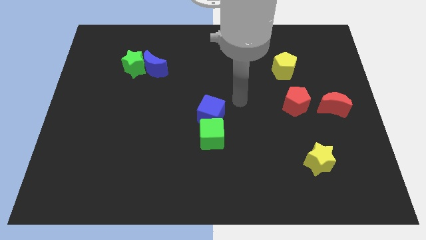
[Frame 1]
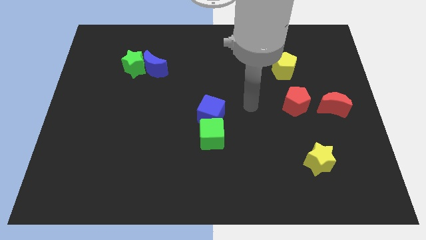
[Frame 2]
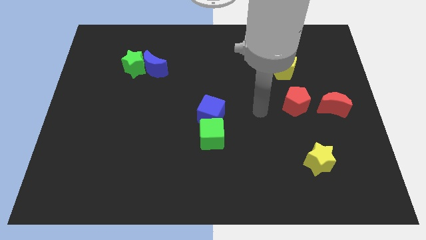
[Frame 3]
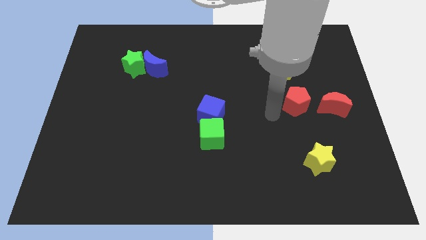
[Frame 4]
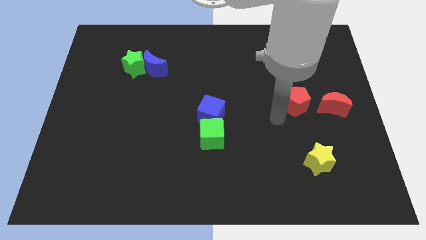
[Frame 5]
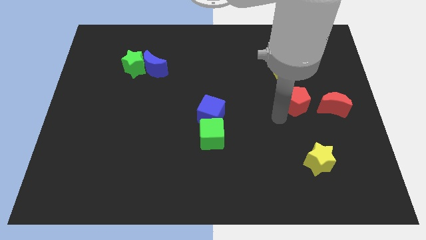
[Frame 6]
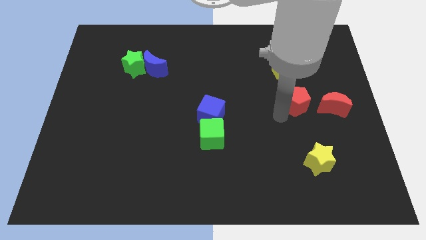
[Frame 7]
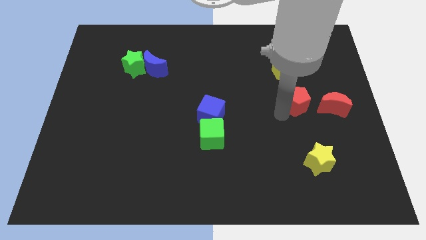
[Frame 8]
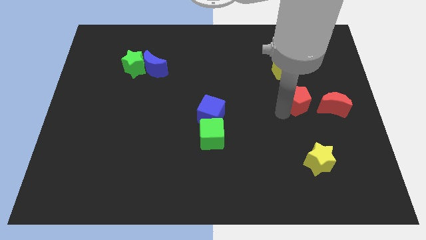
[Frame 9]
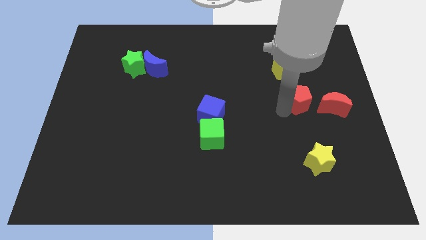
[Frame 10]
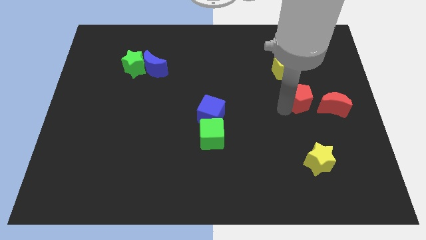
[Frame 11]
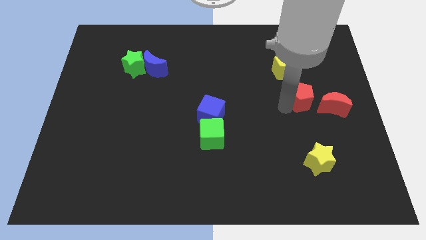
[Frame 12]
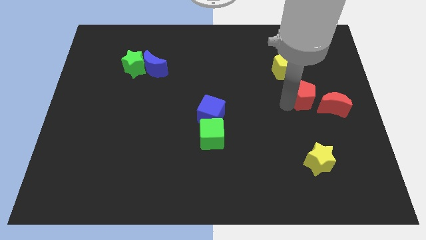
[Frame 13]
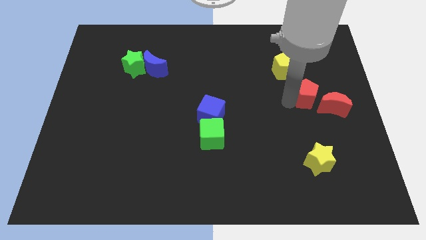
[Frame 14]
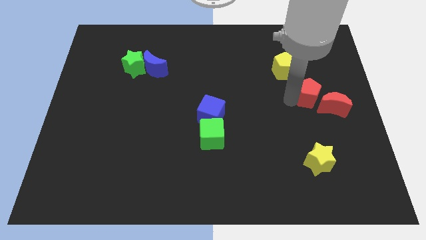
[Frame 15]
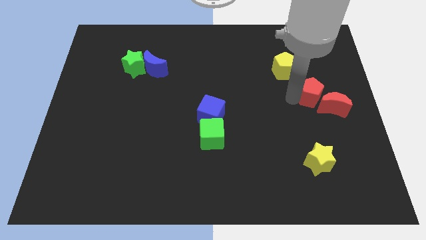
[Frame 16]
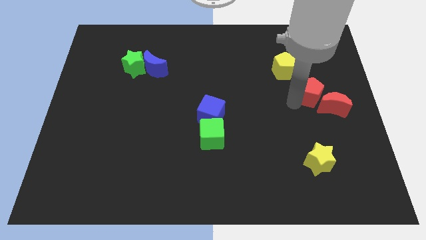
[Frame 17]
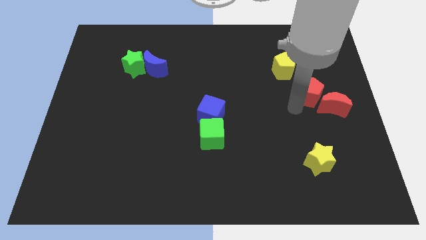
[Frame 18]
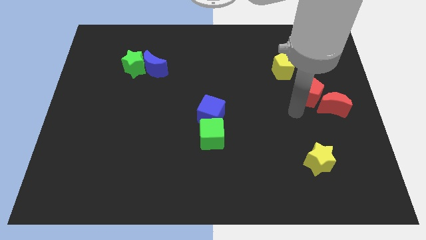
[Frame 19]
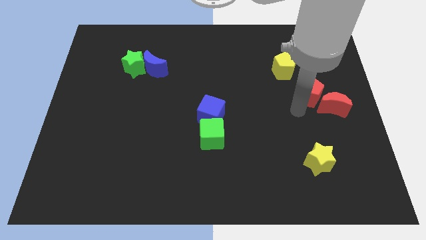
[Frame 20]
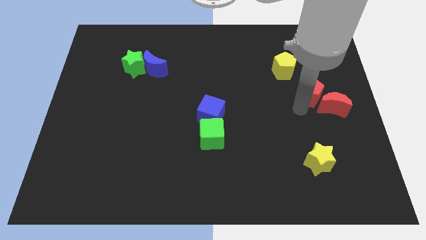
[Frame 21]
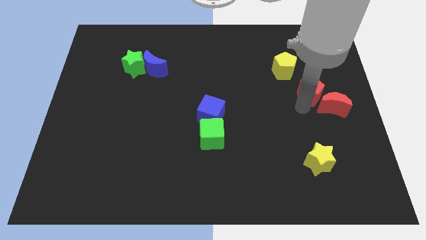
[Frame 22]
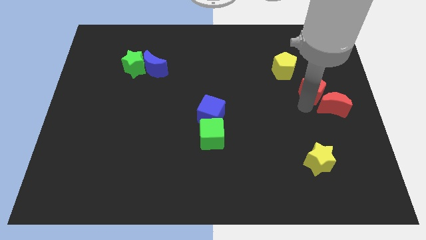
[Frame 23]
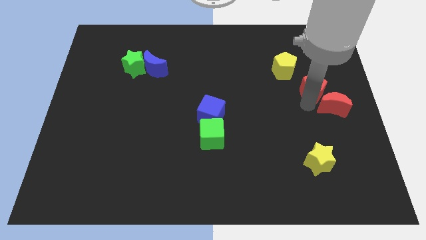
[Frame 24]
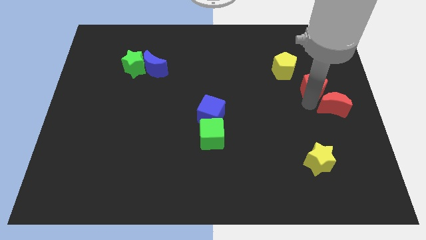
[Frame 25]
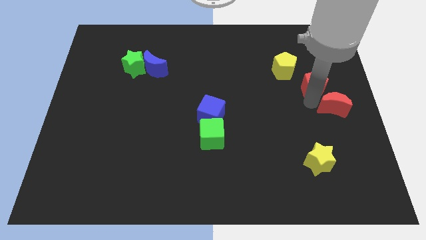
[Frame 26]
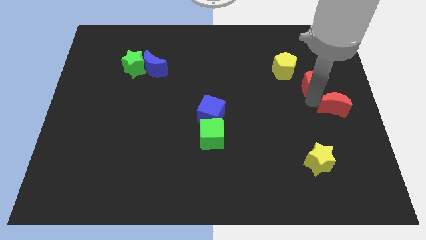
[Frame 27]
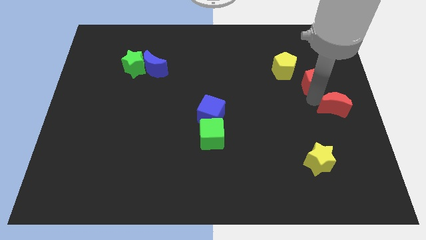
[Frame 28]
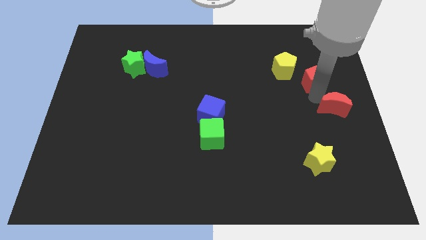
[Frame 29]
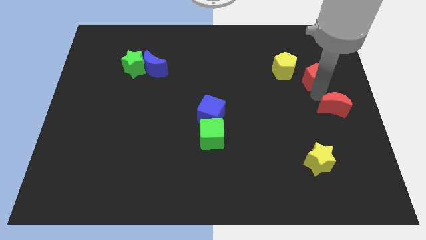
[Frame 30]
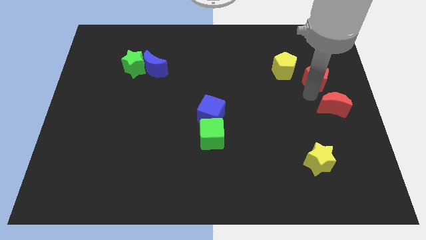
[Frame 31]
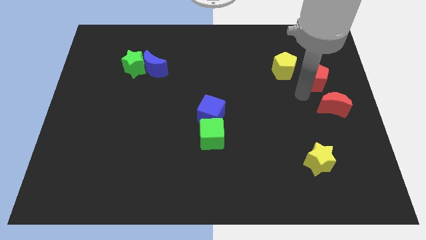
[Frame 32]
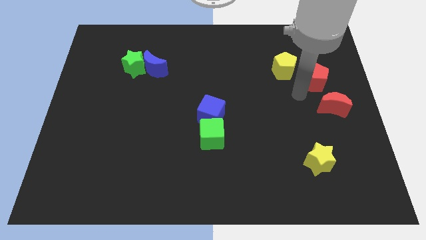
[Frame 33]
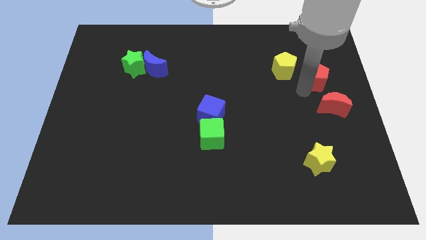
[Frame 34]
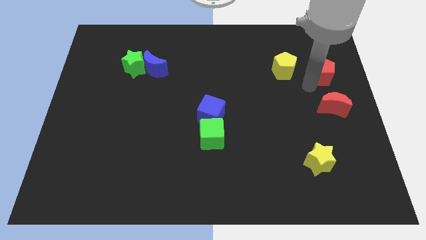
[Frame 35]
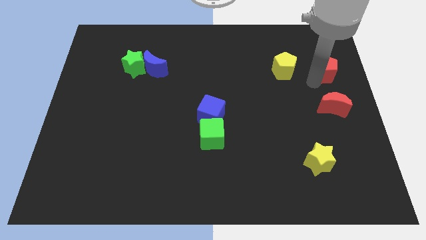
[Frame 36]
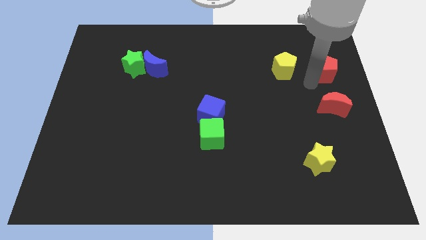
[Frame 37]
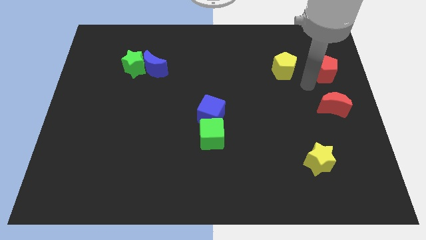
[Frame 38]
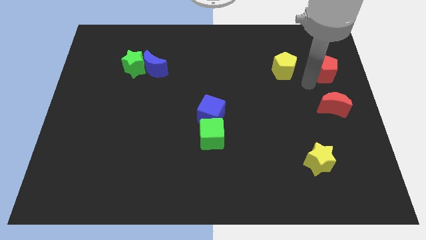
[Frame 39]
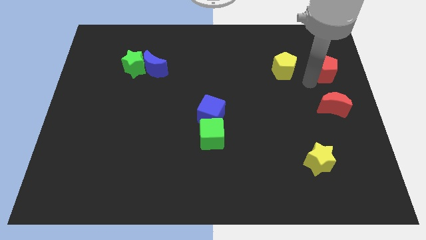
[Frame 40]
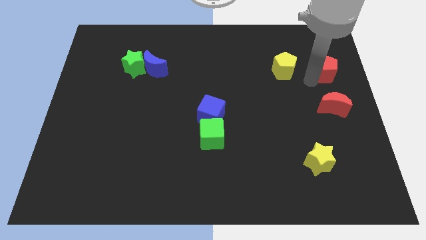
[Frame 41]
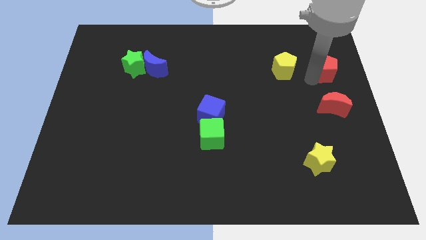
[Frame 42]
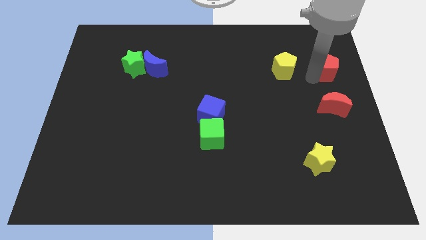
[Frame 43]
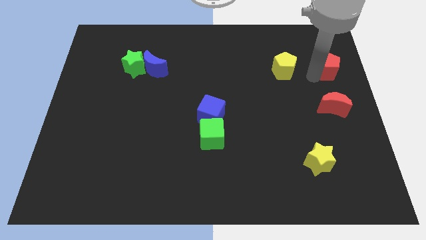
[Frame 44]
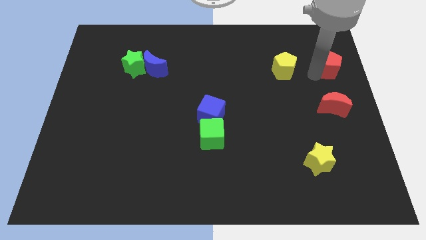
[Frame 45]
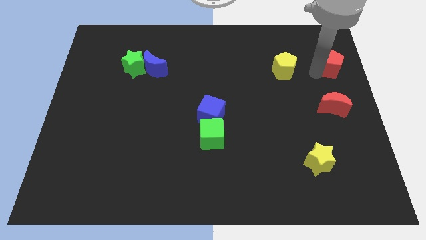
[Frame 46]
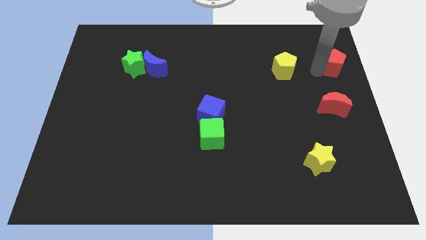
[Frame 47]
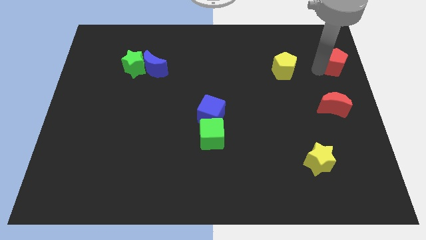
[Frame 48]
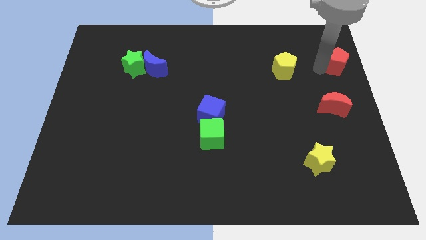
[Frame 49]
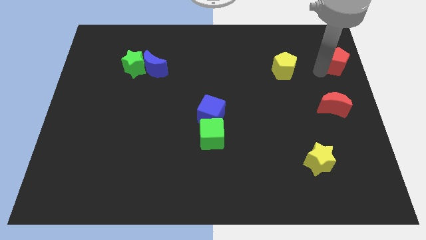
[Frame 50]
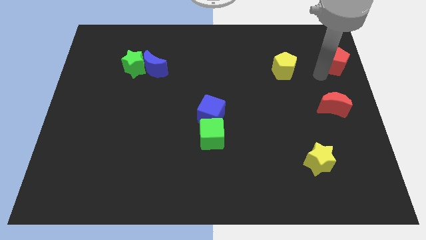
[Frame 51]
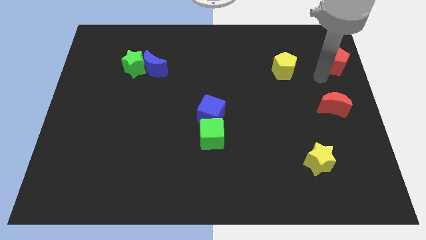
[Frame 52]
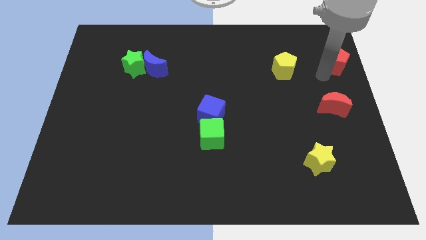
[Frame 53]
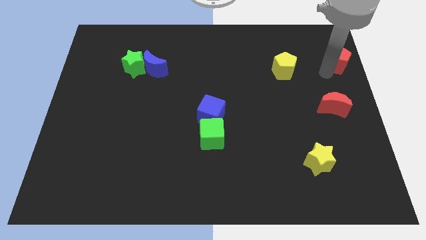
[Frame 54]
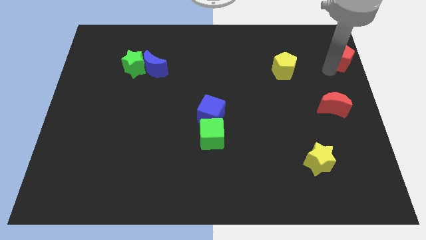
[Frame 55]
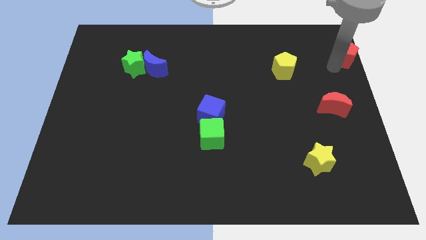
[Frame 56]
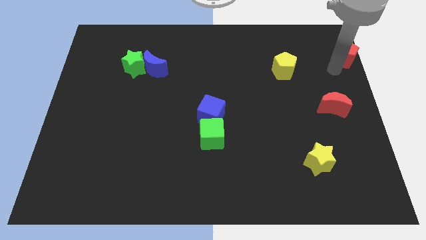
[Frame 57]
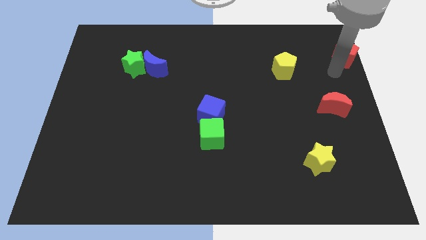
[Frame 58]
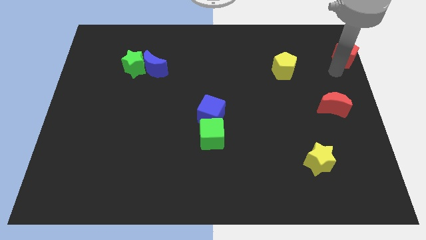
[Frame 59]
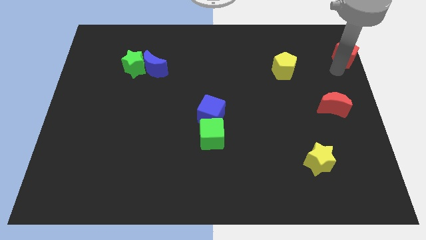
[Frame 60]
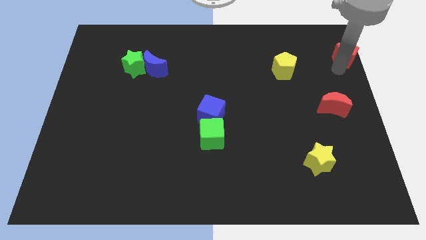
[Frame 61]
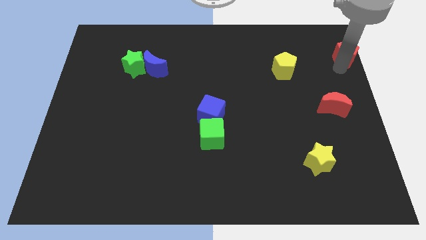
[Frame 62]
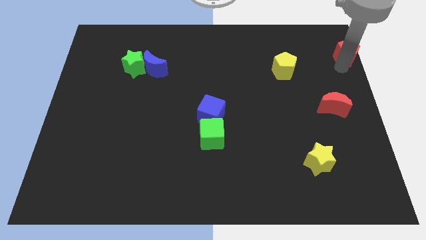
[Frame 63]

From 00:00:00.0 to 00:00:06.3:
slide the red pentagon to the top right corner
